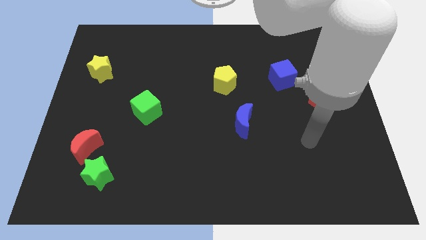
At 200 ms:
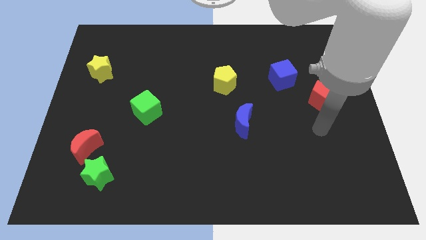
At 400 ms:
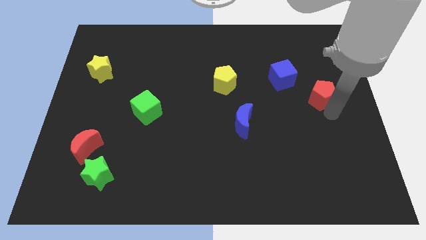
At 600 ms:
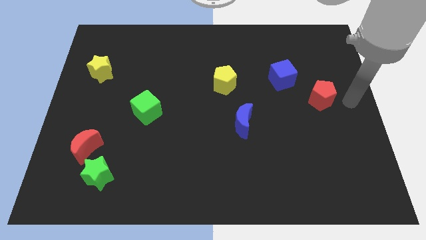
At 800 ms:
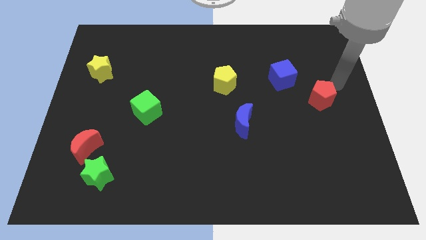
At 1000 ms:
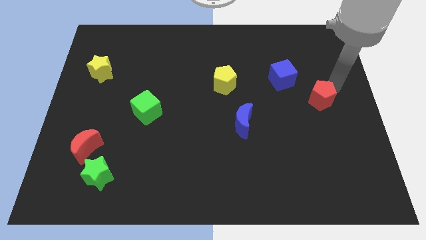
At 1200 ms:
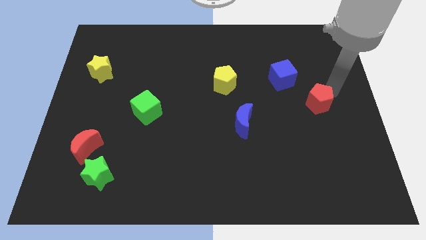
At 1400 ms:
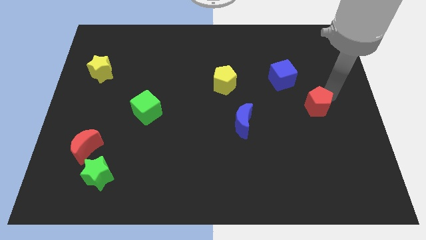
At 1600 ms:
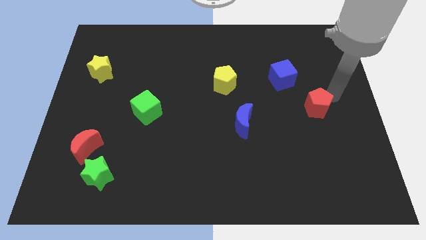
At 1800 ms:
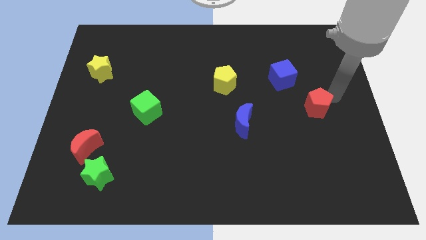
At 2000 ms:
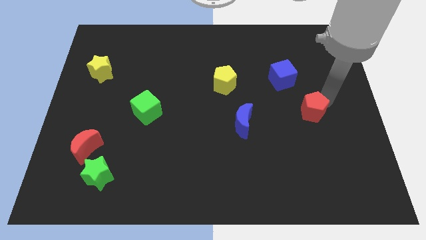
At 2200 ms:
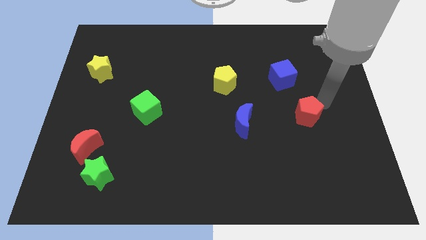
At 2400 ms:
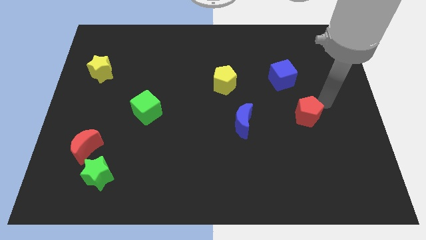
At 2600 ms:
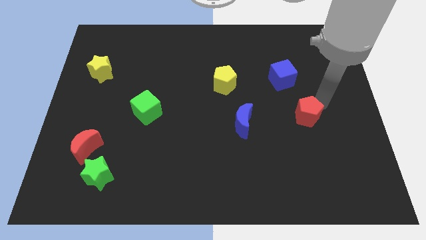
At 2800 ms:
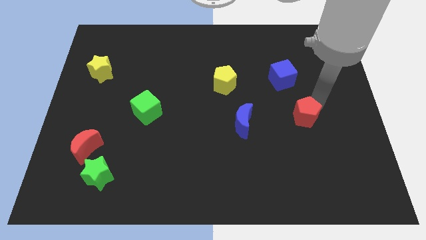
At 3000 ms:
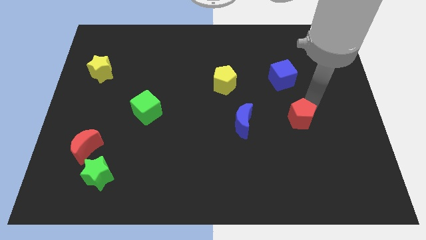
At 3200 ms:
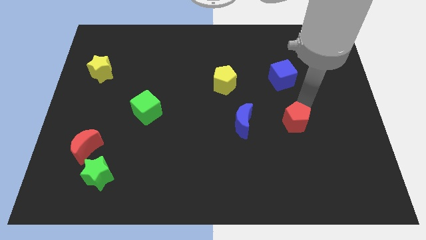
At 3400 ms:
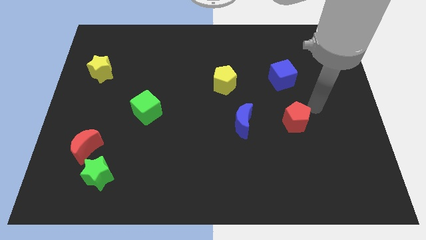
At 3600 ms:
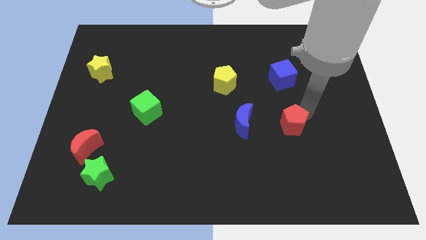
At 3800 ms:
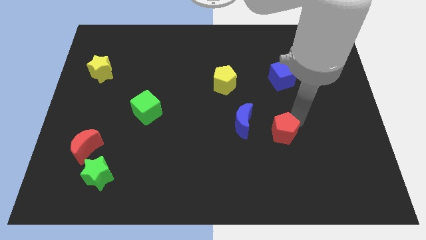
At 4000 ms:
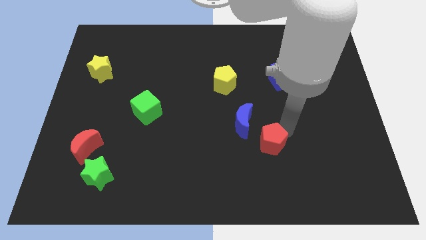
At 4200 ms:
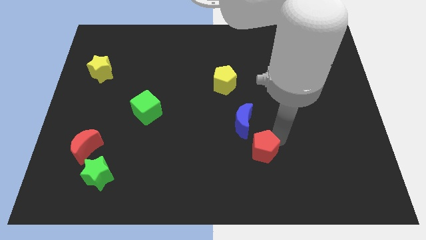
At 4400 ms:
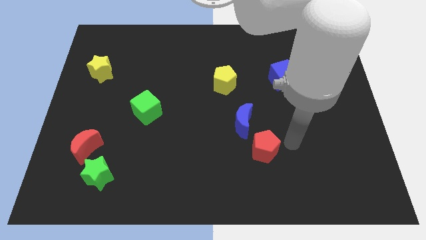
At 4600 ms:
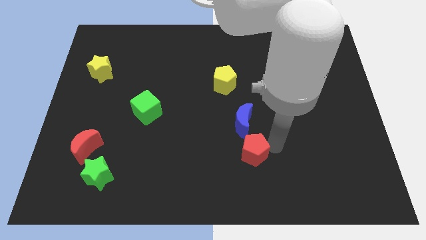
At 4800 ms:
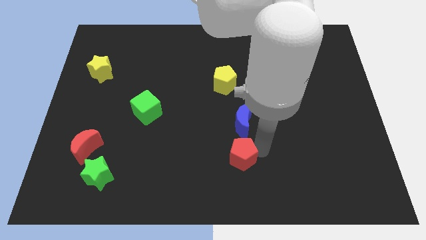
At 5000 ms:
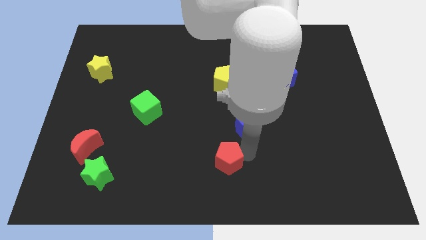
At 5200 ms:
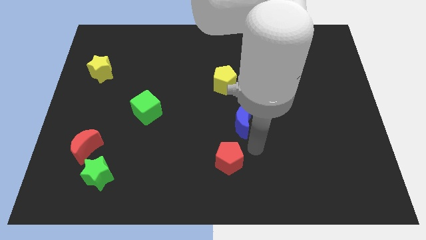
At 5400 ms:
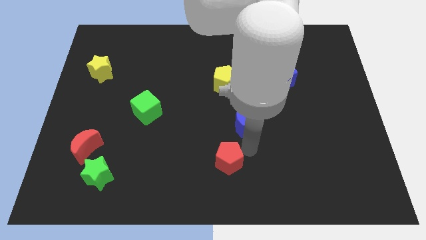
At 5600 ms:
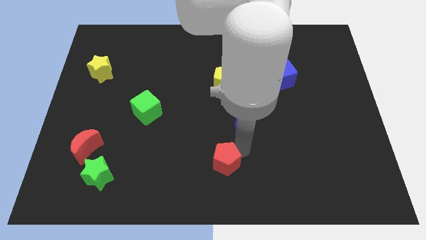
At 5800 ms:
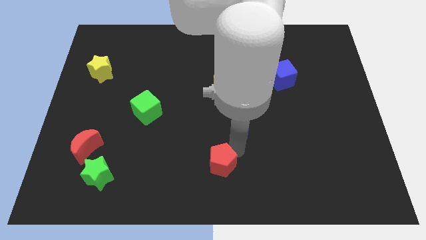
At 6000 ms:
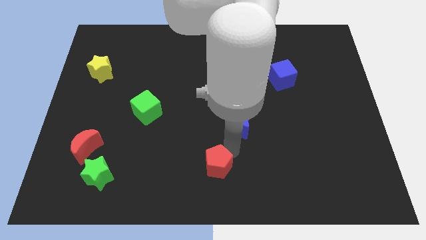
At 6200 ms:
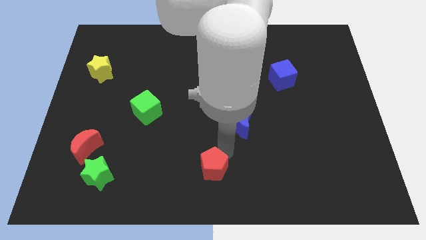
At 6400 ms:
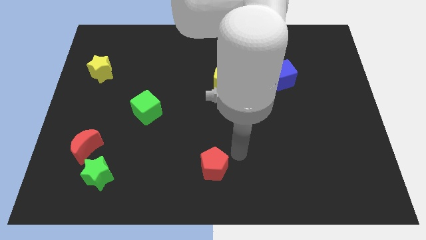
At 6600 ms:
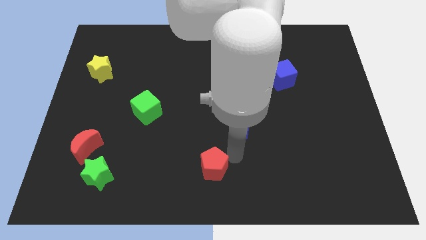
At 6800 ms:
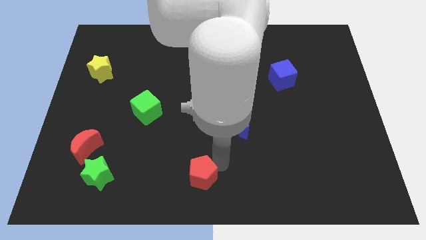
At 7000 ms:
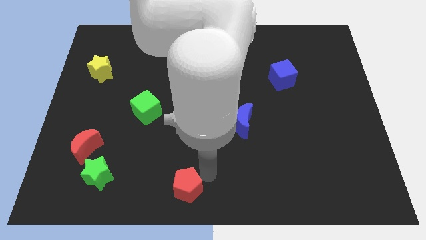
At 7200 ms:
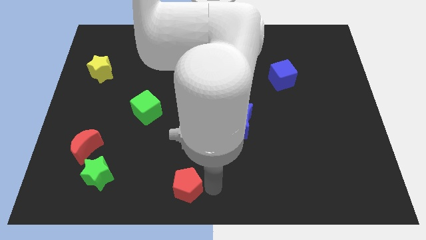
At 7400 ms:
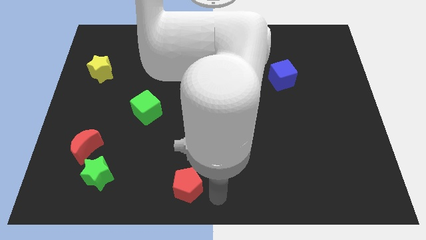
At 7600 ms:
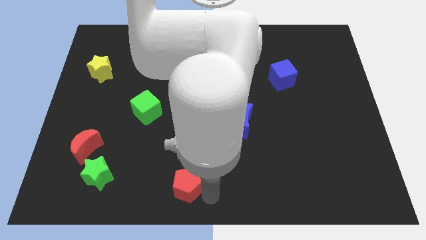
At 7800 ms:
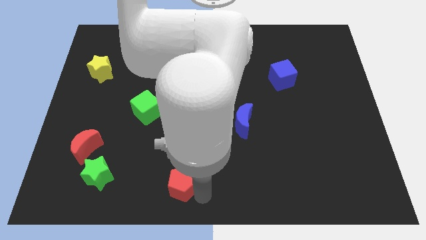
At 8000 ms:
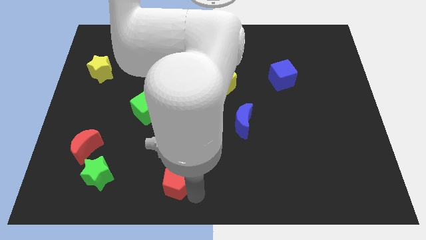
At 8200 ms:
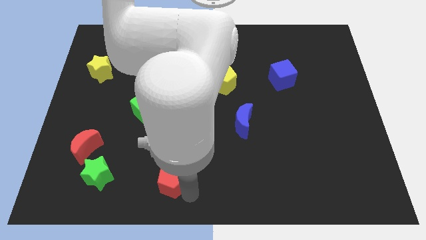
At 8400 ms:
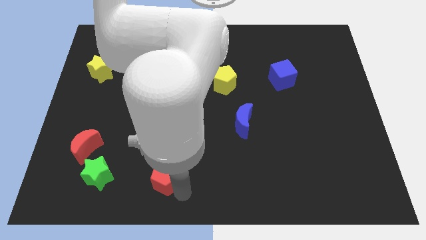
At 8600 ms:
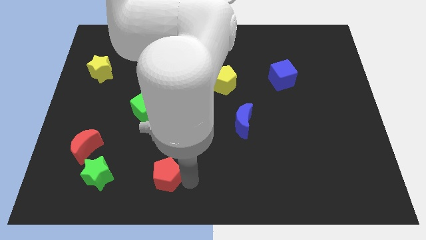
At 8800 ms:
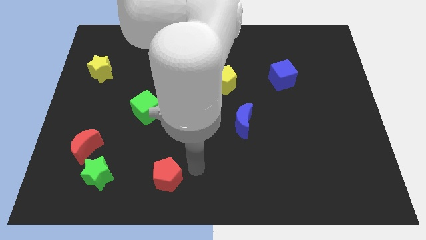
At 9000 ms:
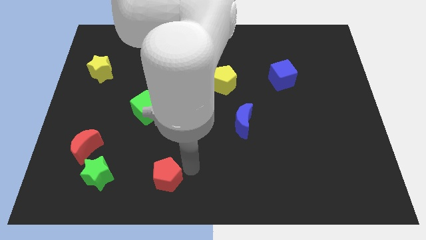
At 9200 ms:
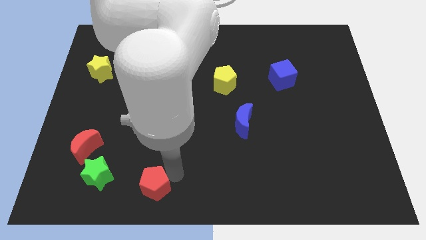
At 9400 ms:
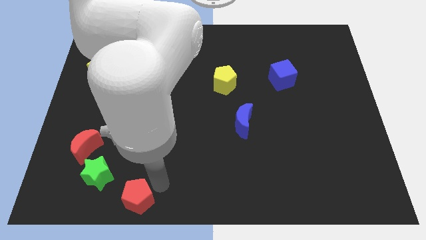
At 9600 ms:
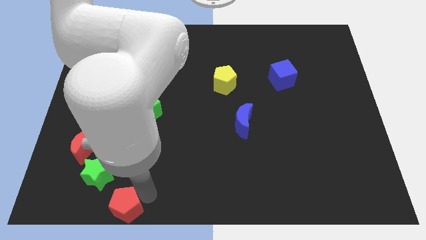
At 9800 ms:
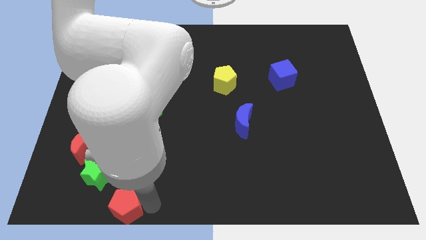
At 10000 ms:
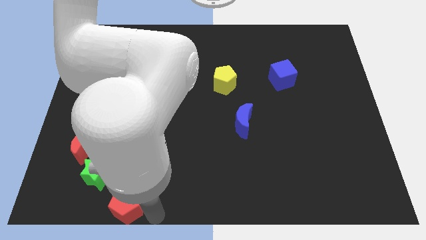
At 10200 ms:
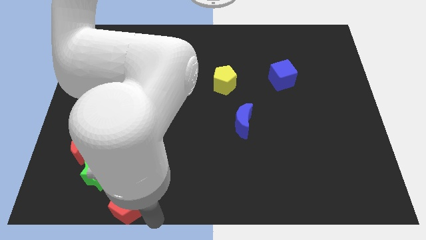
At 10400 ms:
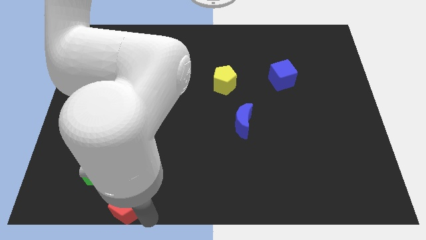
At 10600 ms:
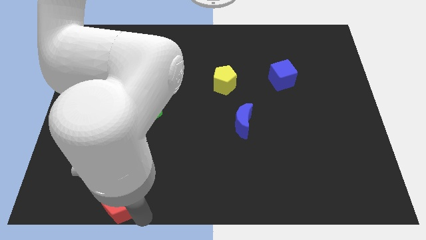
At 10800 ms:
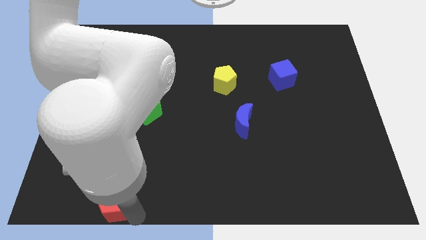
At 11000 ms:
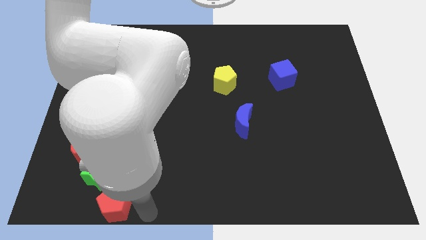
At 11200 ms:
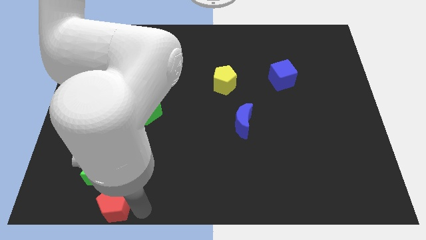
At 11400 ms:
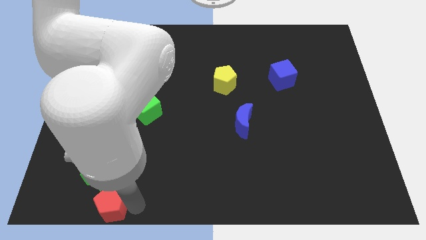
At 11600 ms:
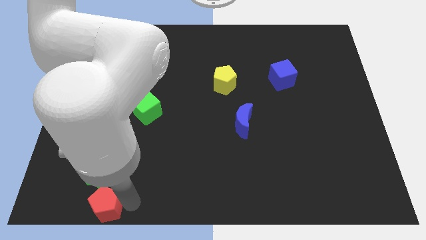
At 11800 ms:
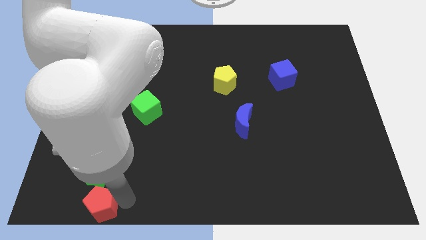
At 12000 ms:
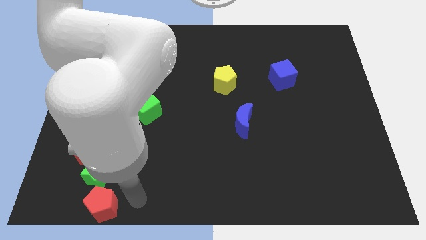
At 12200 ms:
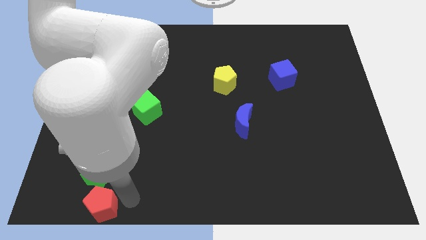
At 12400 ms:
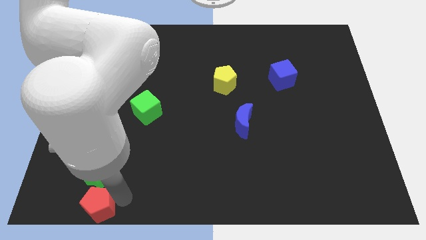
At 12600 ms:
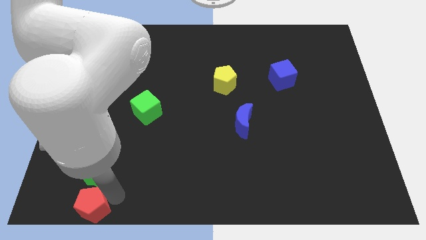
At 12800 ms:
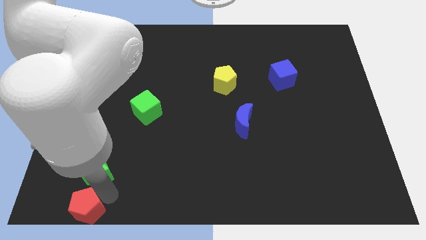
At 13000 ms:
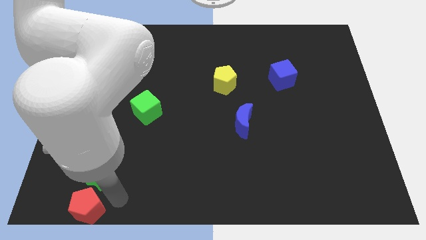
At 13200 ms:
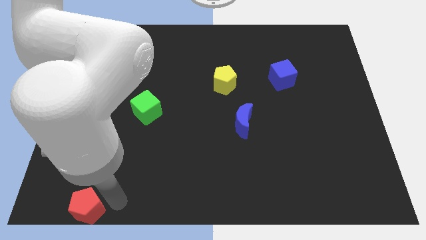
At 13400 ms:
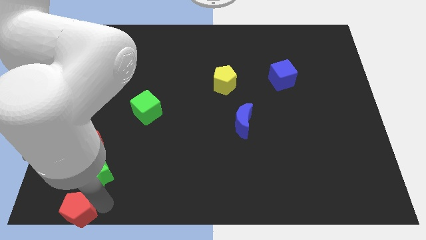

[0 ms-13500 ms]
put the red pentagon to the bottom left

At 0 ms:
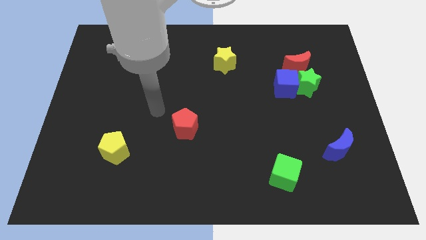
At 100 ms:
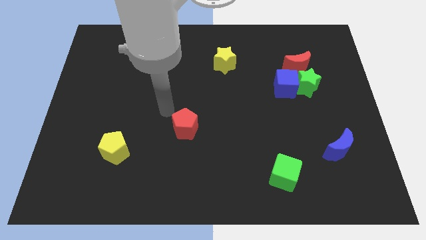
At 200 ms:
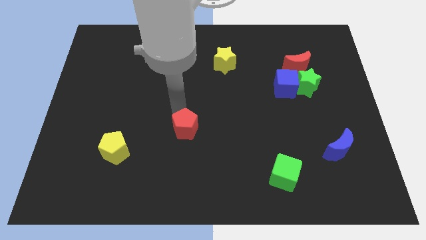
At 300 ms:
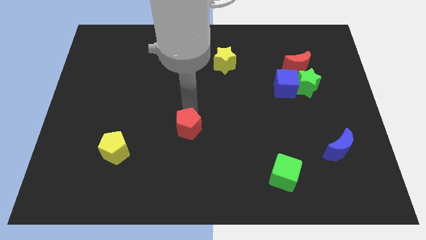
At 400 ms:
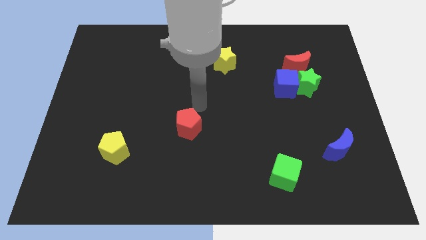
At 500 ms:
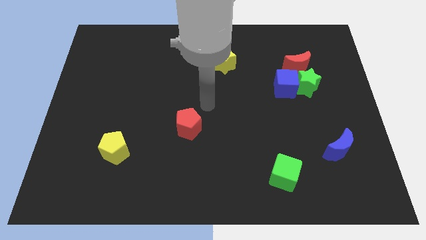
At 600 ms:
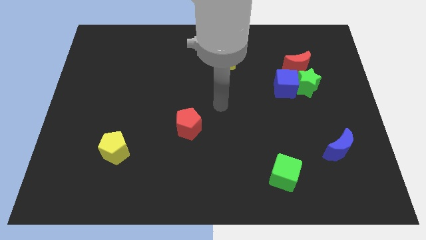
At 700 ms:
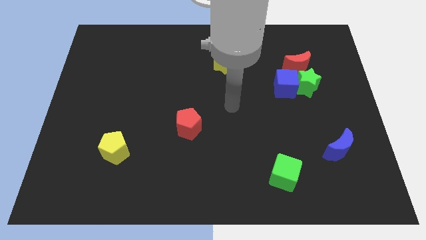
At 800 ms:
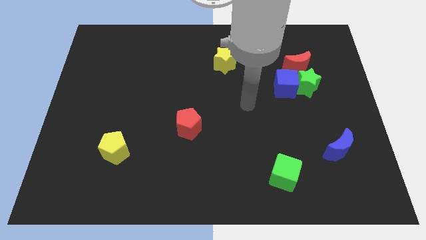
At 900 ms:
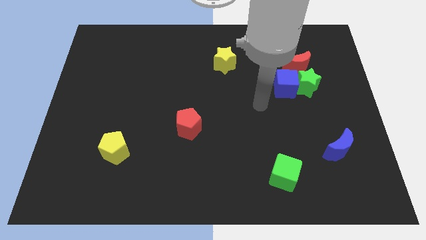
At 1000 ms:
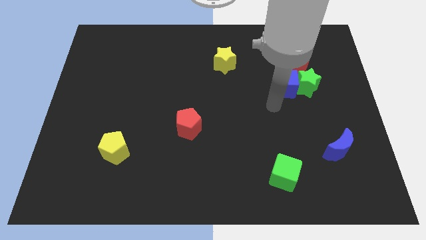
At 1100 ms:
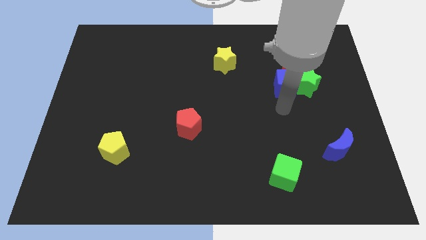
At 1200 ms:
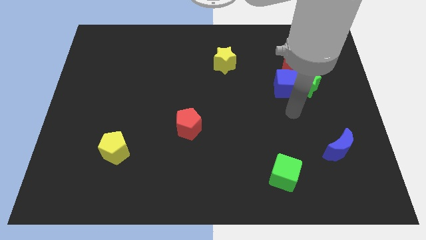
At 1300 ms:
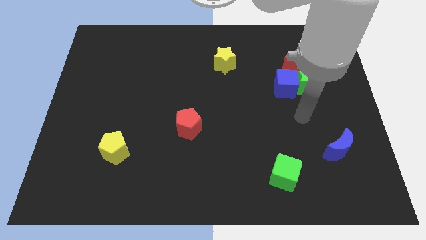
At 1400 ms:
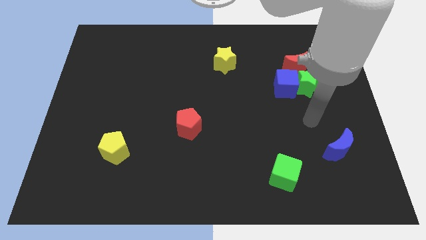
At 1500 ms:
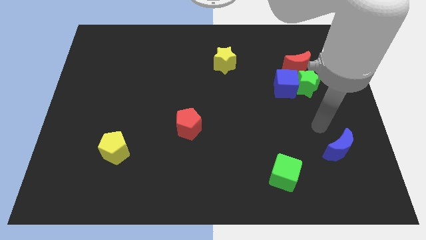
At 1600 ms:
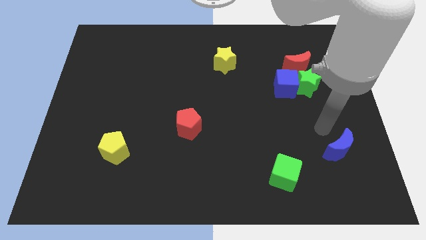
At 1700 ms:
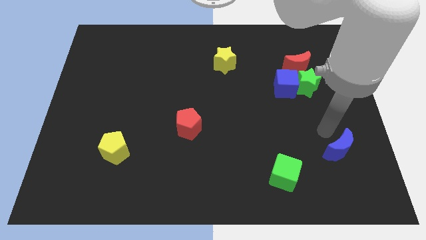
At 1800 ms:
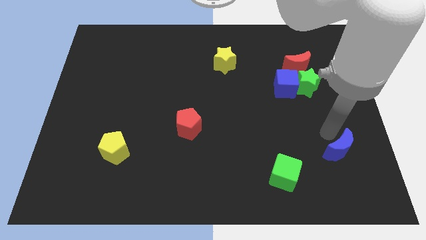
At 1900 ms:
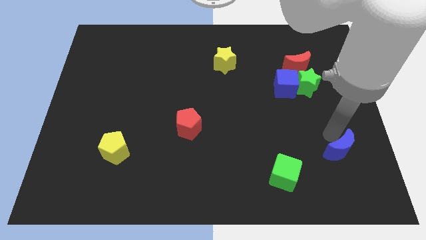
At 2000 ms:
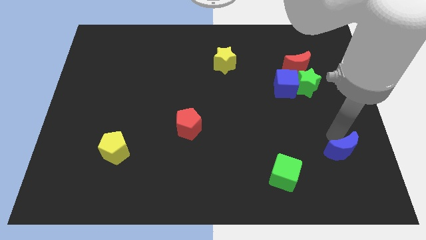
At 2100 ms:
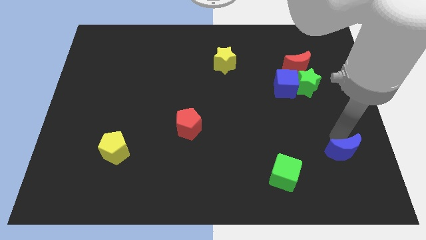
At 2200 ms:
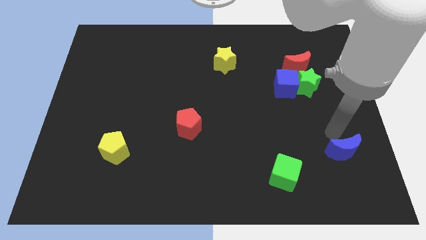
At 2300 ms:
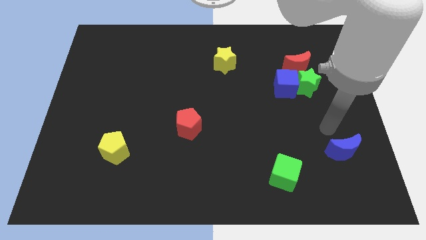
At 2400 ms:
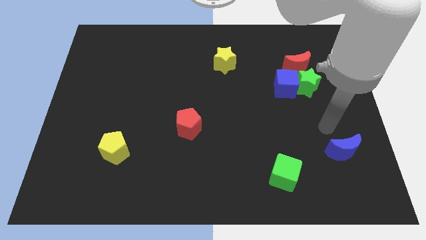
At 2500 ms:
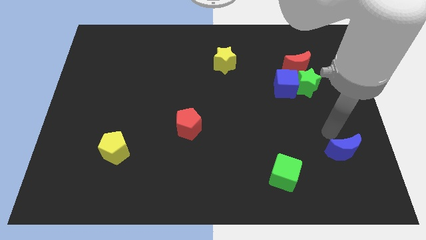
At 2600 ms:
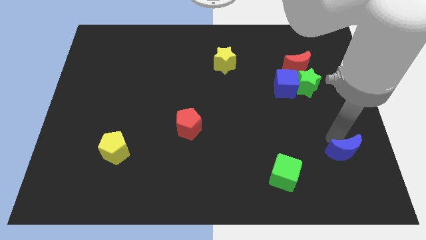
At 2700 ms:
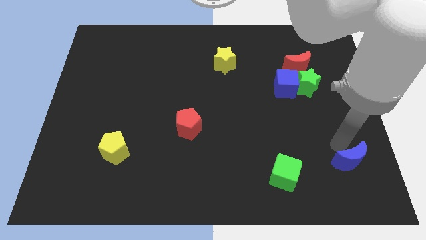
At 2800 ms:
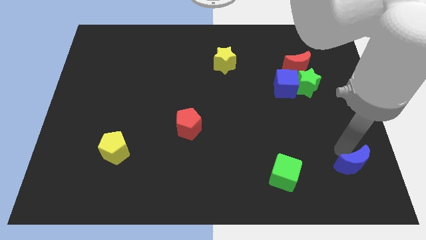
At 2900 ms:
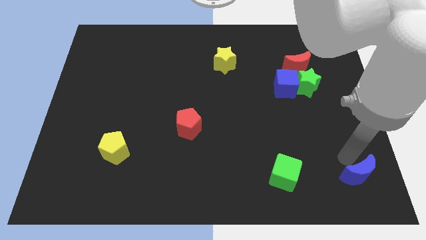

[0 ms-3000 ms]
slide the blue moon to the bottom right
